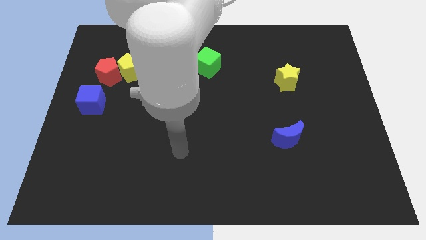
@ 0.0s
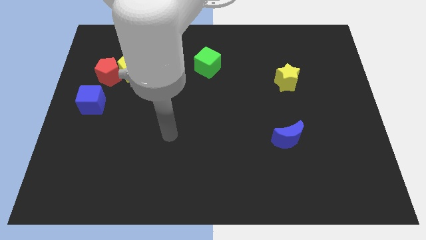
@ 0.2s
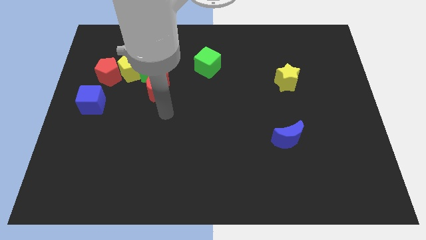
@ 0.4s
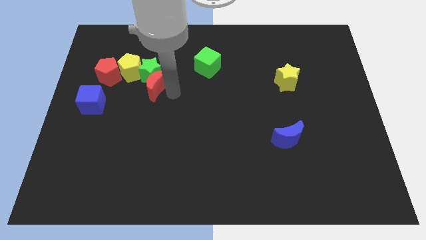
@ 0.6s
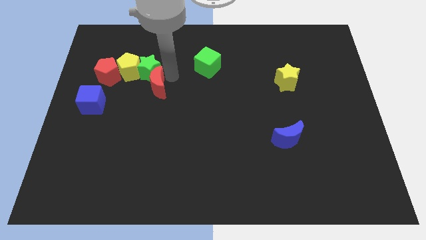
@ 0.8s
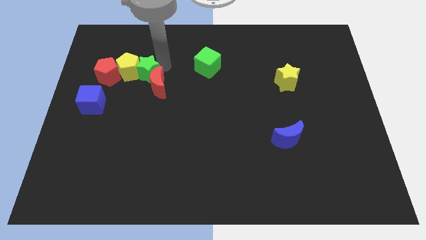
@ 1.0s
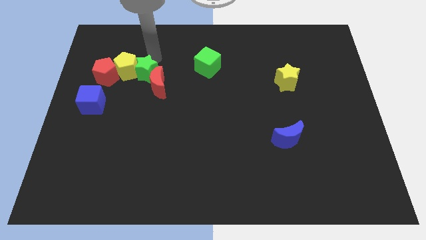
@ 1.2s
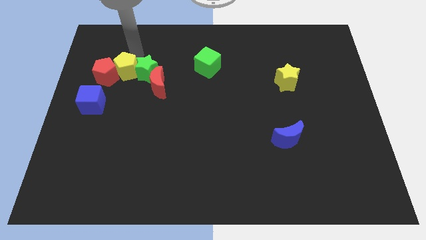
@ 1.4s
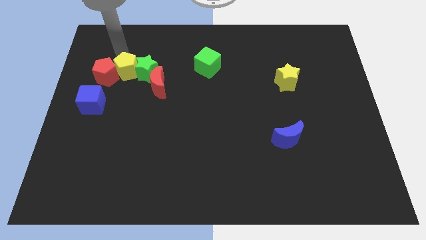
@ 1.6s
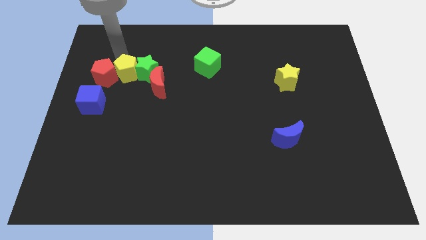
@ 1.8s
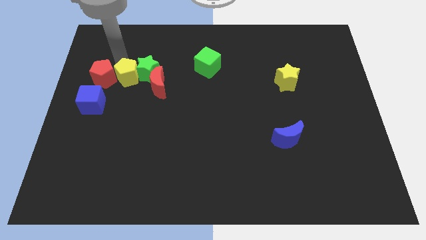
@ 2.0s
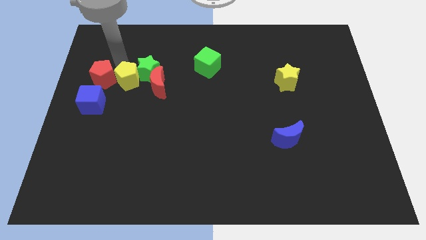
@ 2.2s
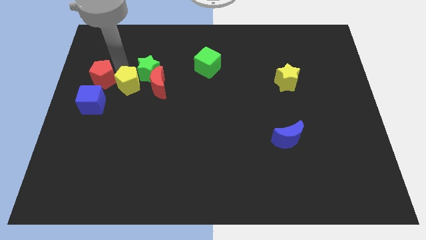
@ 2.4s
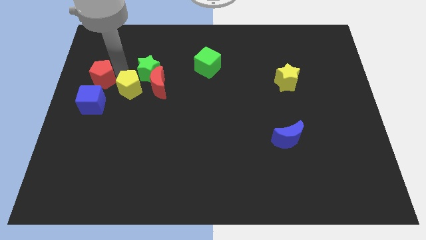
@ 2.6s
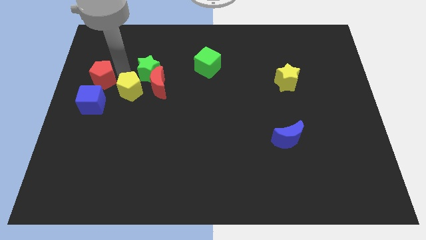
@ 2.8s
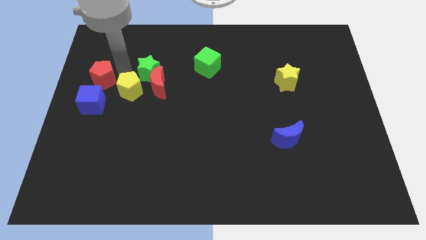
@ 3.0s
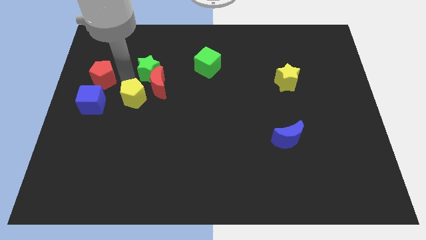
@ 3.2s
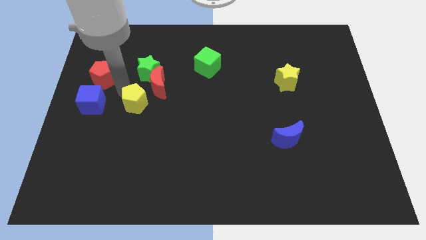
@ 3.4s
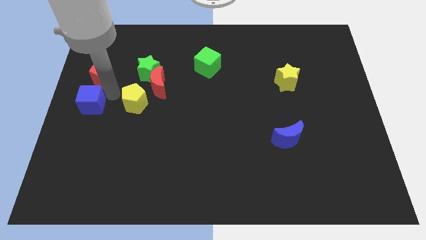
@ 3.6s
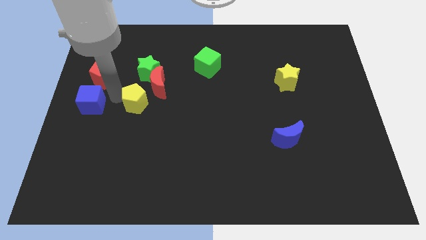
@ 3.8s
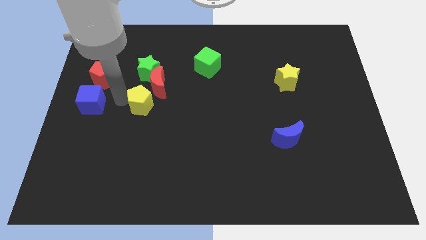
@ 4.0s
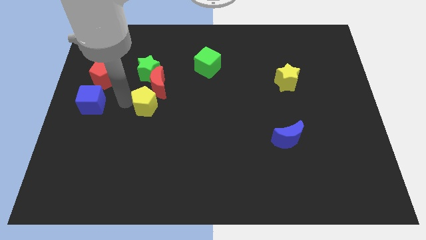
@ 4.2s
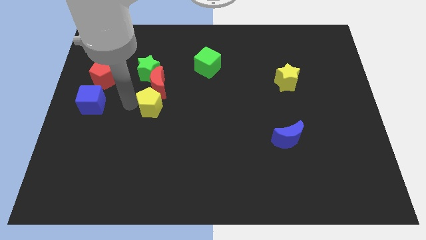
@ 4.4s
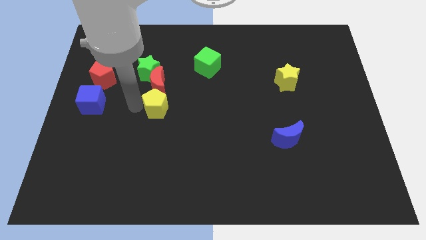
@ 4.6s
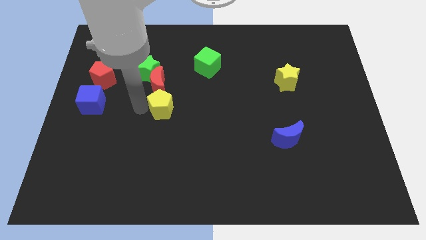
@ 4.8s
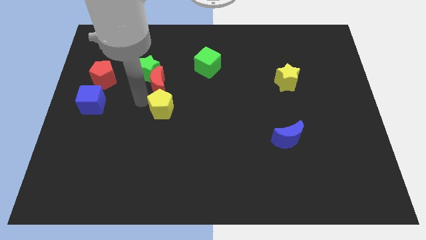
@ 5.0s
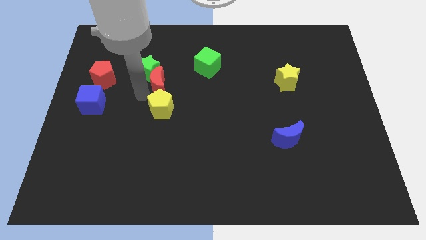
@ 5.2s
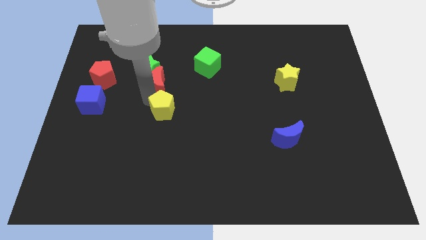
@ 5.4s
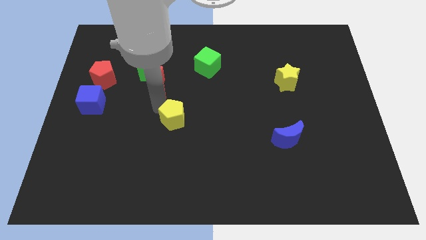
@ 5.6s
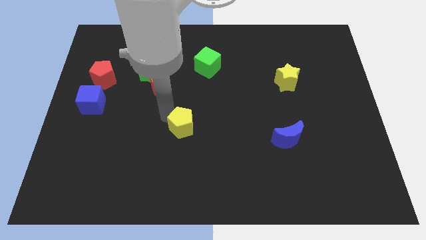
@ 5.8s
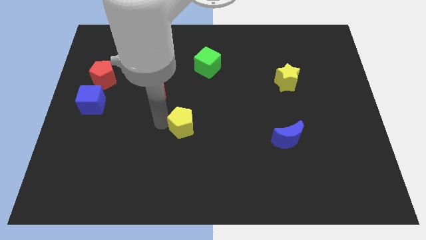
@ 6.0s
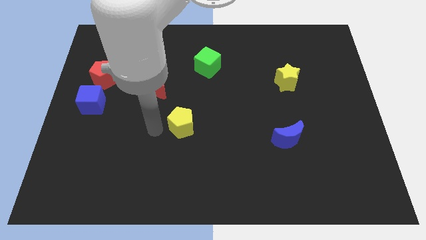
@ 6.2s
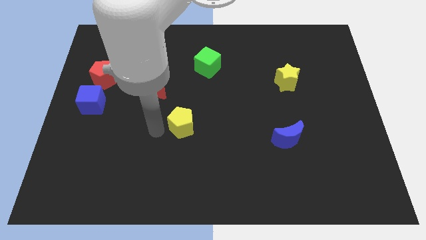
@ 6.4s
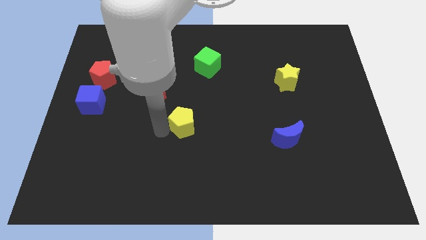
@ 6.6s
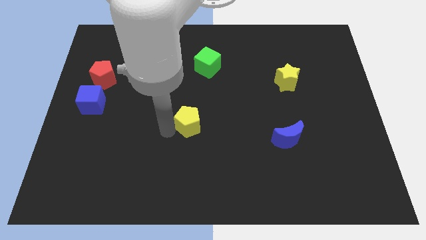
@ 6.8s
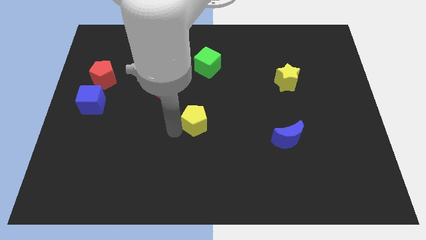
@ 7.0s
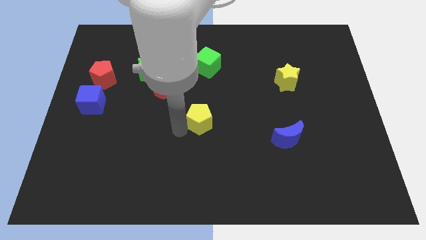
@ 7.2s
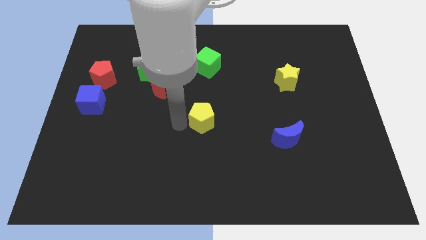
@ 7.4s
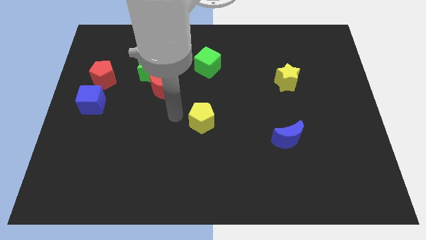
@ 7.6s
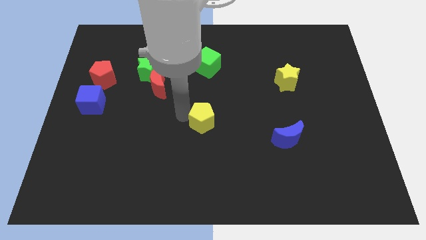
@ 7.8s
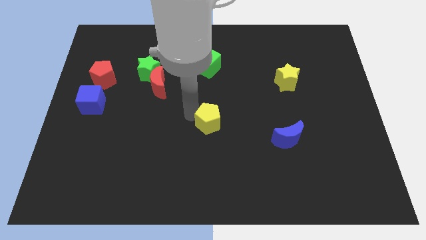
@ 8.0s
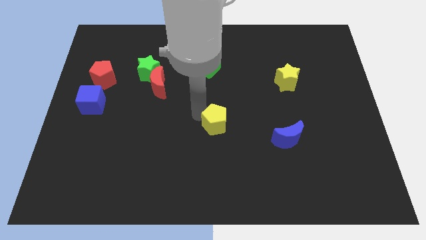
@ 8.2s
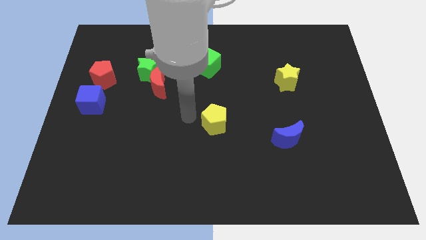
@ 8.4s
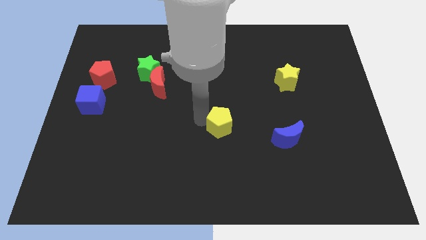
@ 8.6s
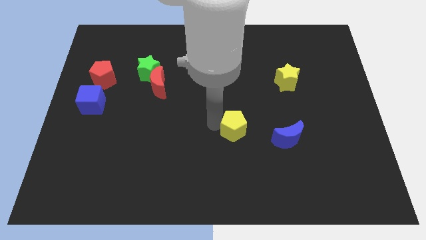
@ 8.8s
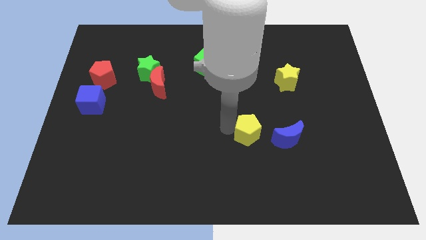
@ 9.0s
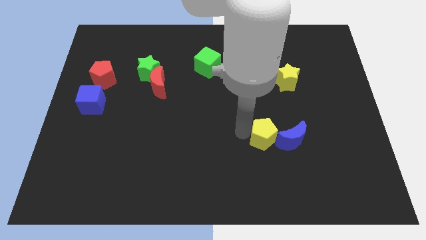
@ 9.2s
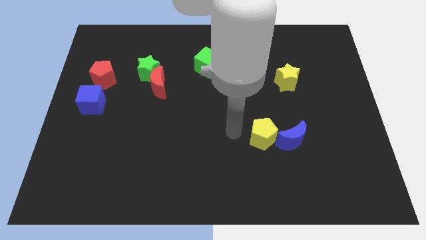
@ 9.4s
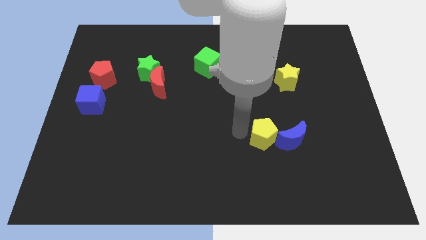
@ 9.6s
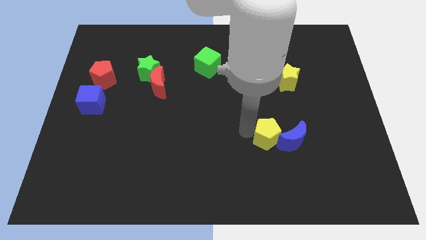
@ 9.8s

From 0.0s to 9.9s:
slide the yellow pentagon close to the blue moon

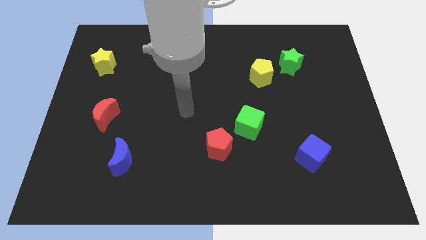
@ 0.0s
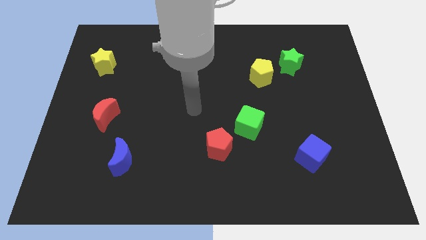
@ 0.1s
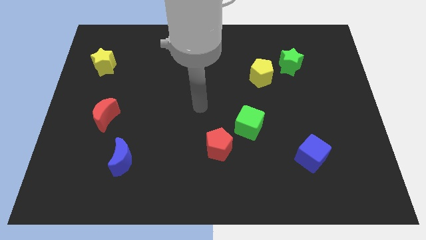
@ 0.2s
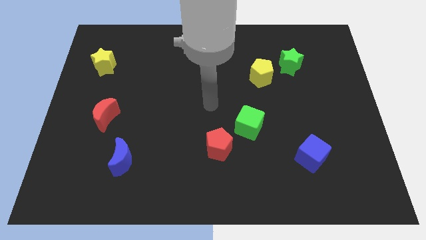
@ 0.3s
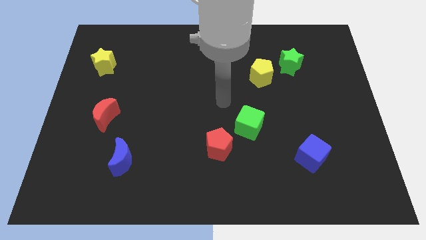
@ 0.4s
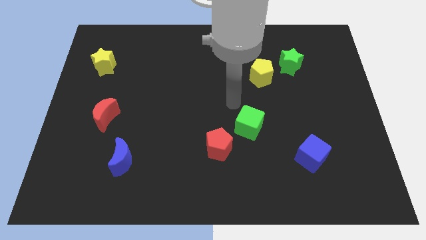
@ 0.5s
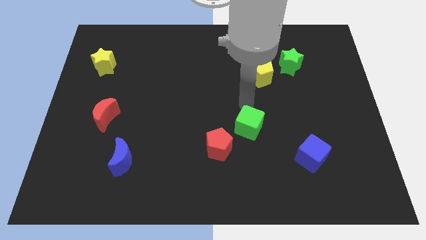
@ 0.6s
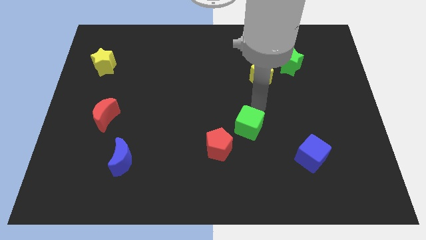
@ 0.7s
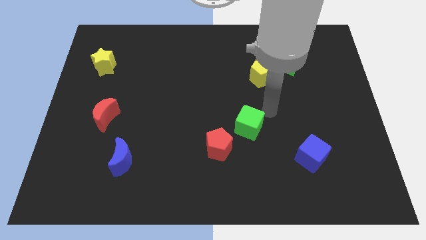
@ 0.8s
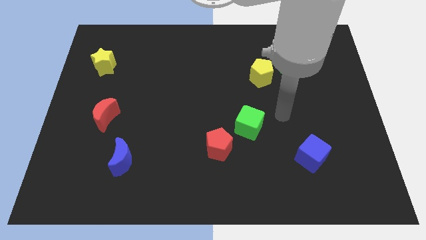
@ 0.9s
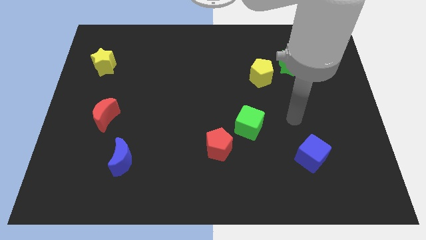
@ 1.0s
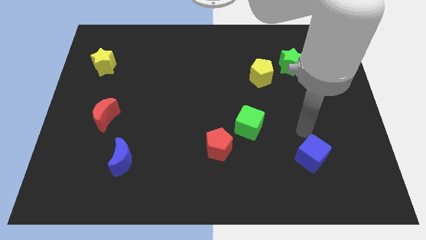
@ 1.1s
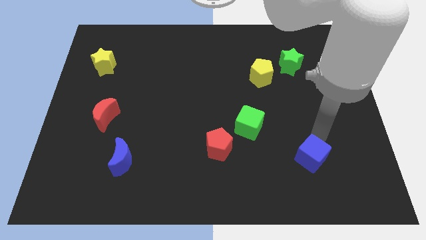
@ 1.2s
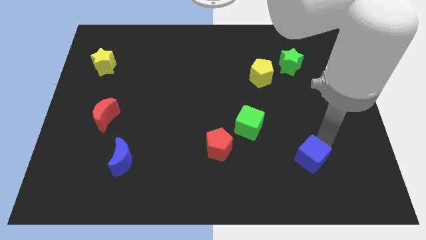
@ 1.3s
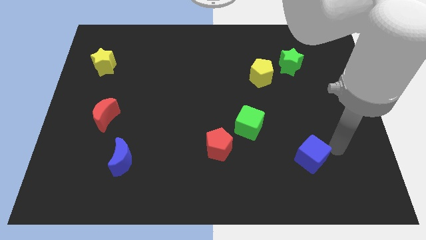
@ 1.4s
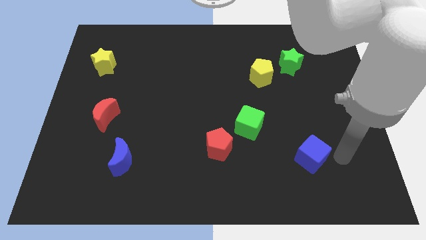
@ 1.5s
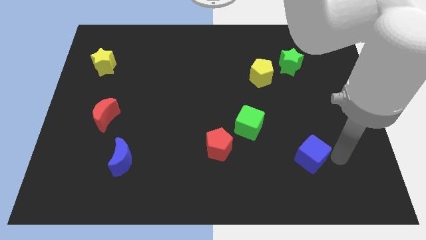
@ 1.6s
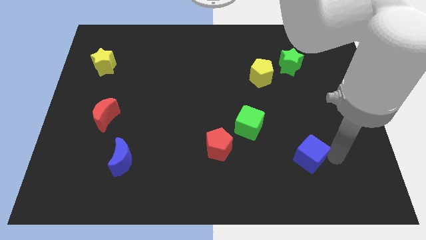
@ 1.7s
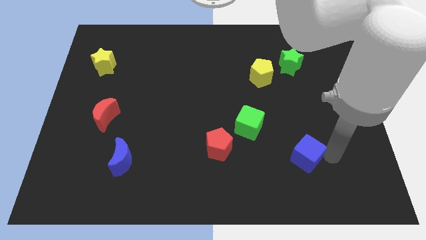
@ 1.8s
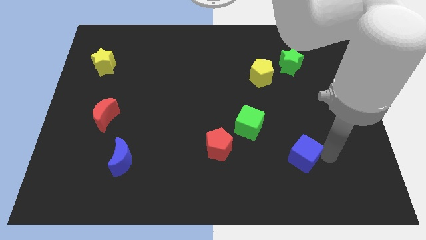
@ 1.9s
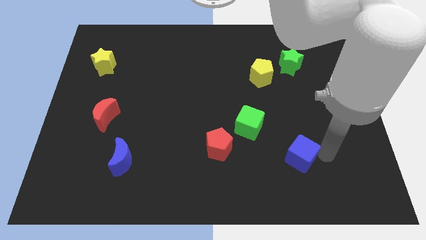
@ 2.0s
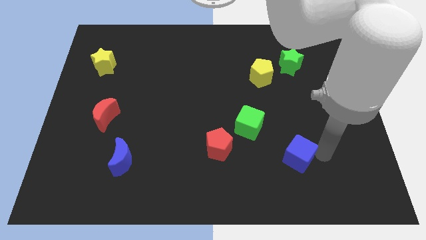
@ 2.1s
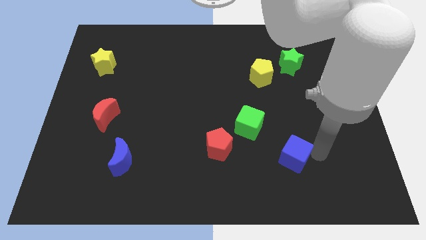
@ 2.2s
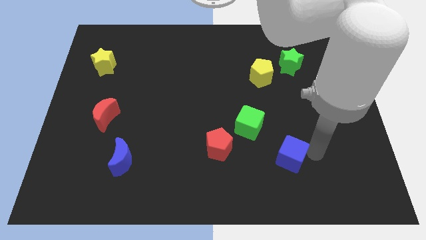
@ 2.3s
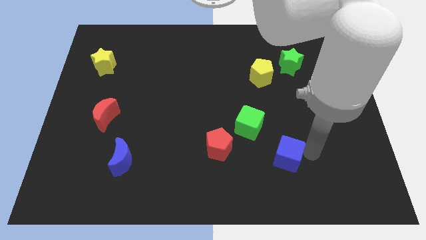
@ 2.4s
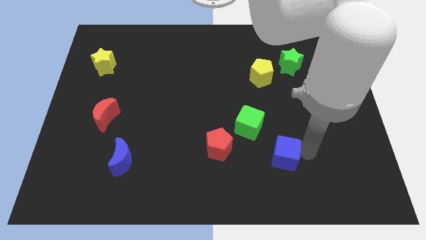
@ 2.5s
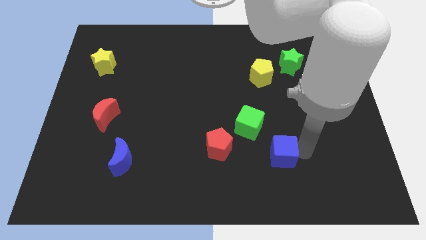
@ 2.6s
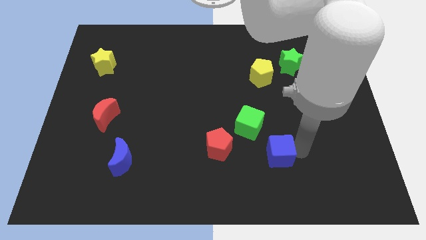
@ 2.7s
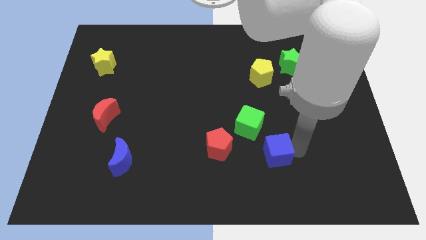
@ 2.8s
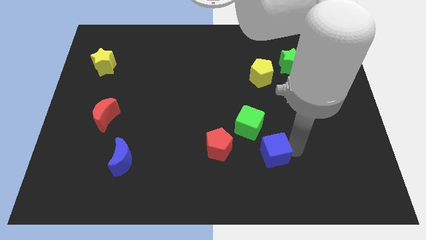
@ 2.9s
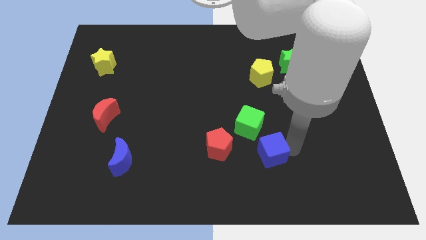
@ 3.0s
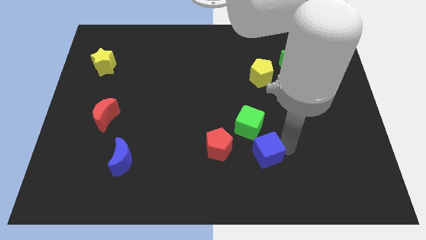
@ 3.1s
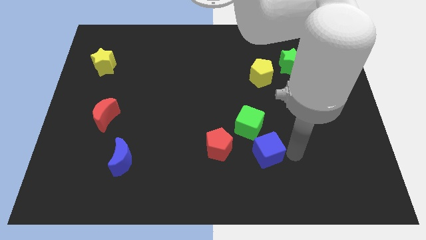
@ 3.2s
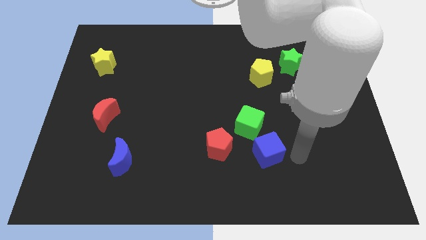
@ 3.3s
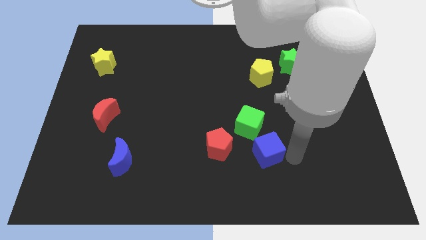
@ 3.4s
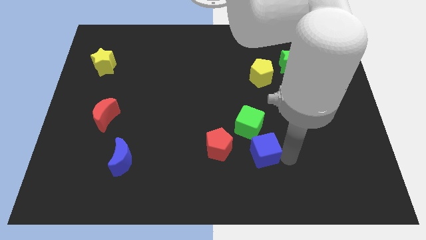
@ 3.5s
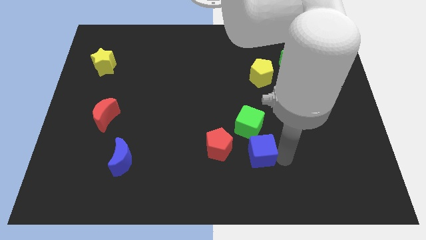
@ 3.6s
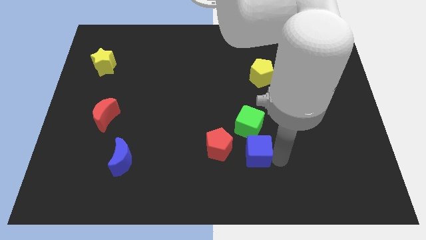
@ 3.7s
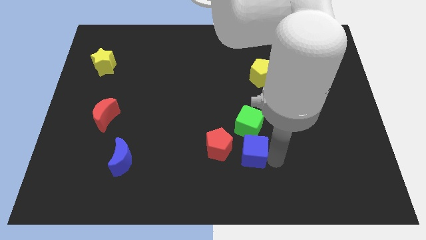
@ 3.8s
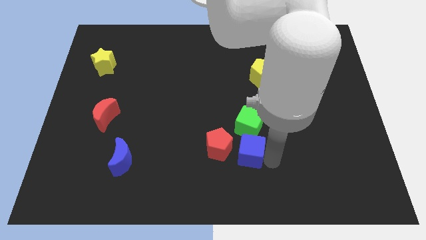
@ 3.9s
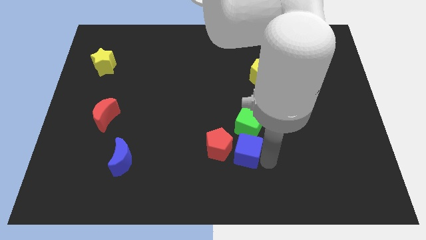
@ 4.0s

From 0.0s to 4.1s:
move the blue cube towards the red pentagon
